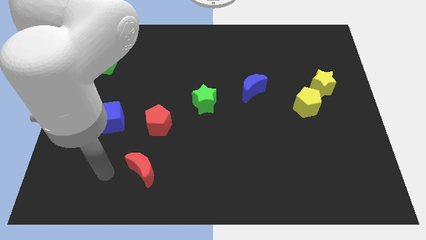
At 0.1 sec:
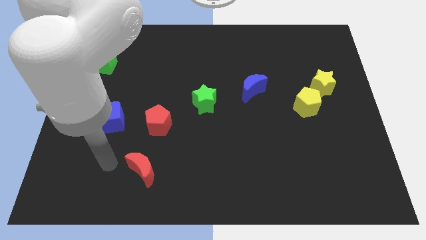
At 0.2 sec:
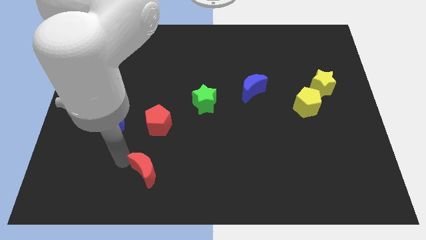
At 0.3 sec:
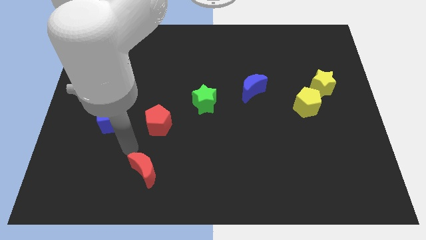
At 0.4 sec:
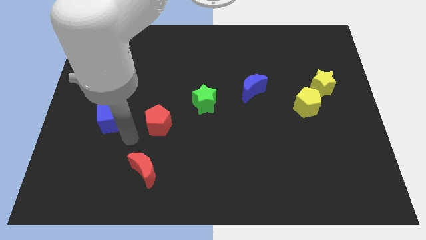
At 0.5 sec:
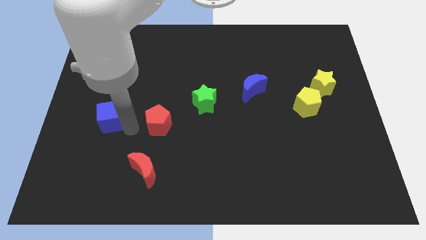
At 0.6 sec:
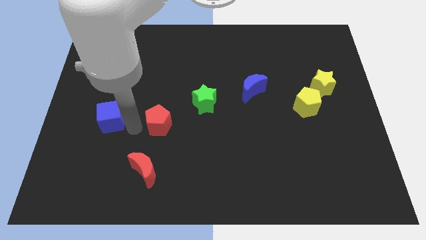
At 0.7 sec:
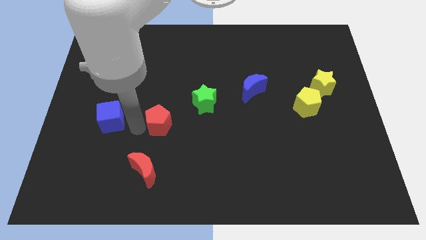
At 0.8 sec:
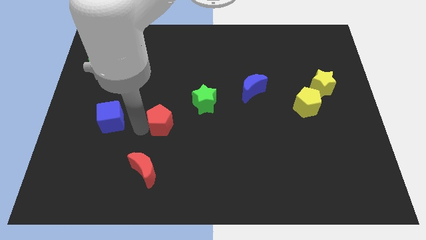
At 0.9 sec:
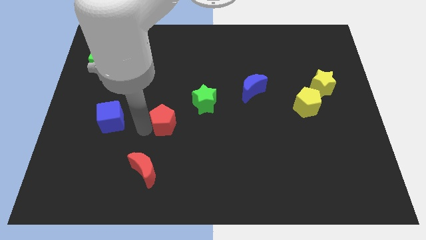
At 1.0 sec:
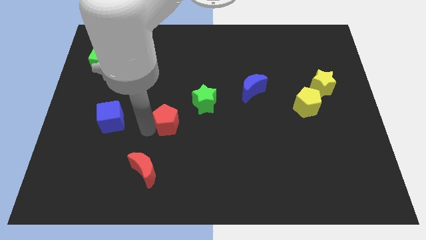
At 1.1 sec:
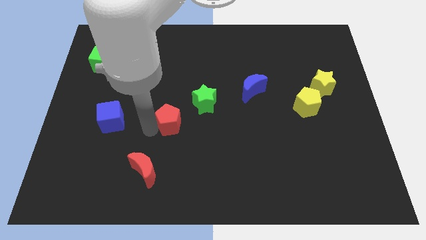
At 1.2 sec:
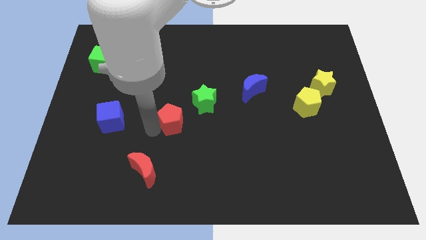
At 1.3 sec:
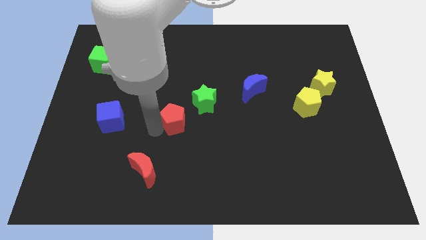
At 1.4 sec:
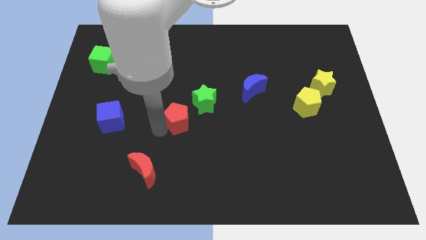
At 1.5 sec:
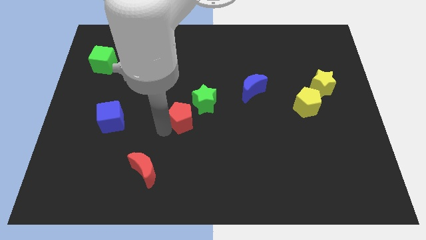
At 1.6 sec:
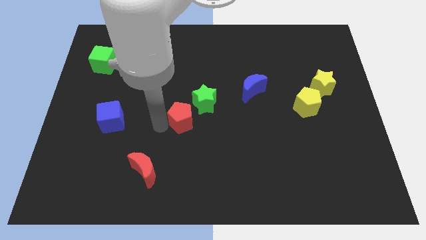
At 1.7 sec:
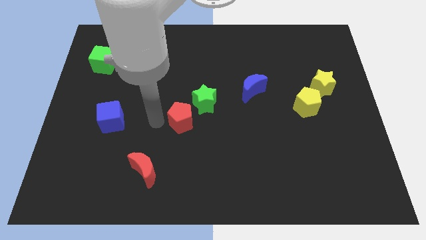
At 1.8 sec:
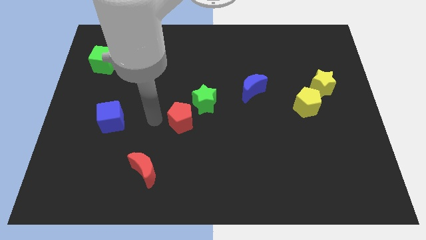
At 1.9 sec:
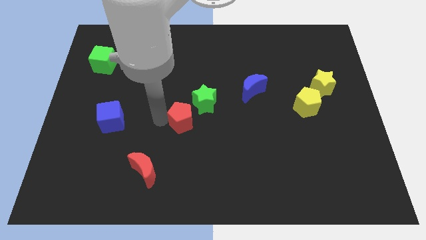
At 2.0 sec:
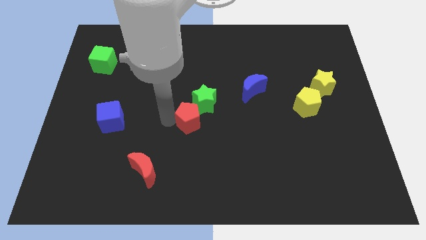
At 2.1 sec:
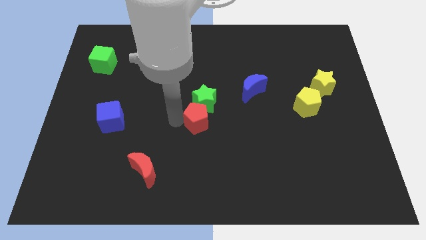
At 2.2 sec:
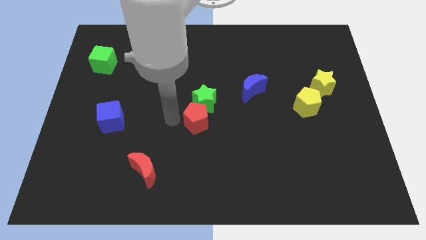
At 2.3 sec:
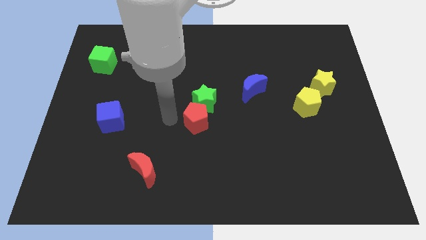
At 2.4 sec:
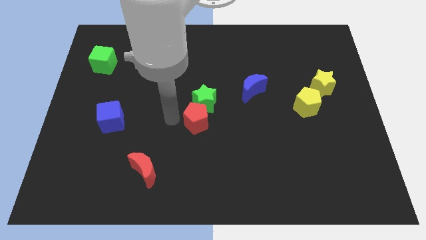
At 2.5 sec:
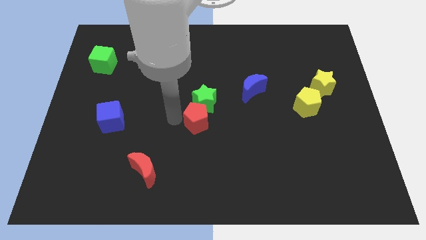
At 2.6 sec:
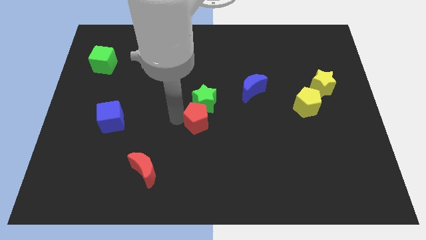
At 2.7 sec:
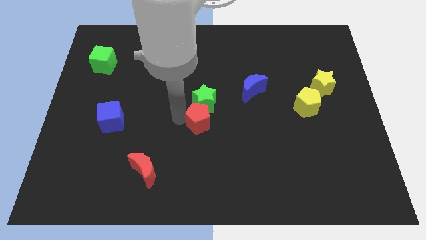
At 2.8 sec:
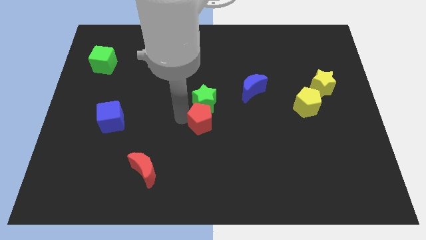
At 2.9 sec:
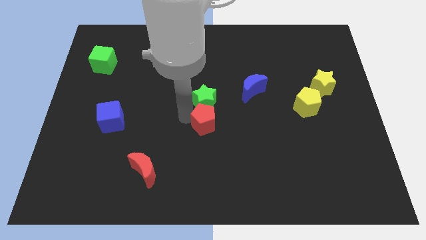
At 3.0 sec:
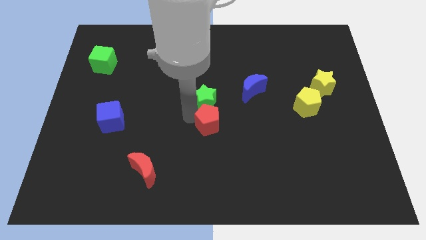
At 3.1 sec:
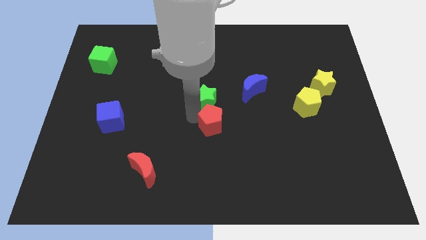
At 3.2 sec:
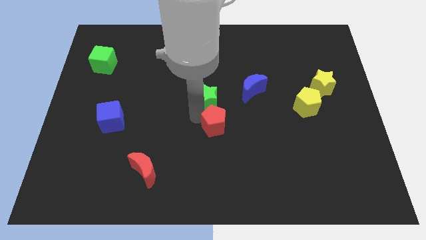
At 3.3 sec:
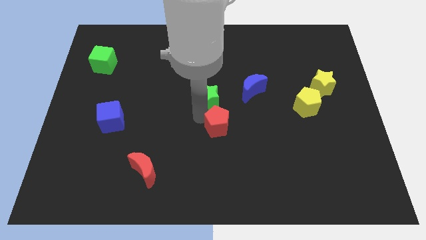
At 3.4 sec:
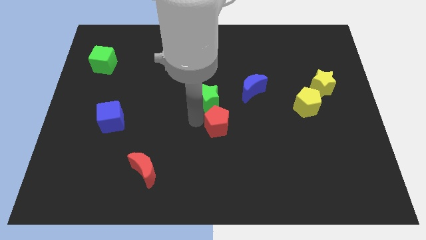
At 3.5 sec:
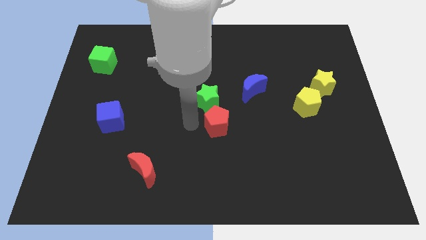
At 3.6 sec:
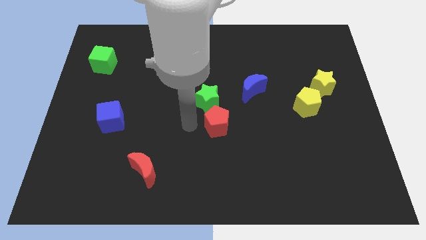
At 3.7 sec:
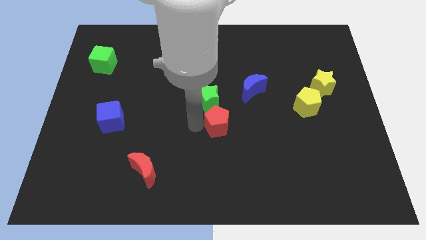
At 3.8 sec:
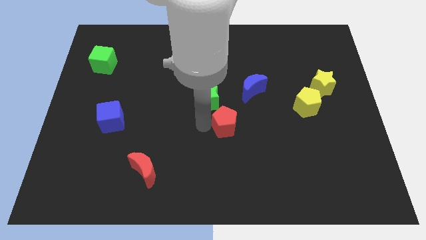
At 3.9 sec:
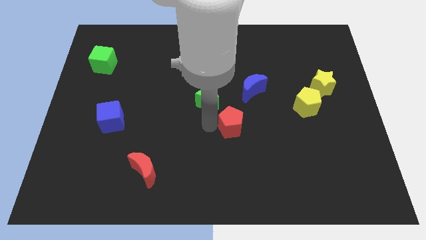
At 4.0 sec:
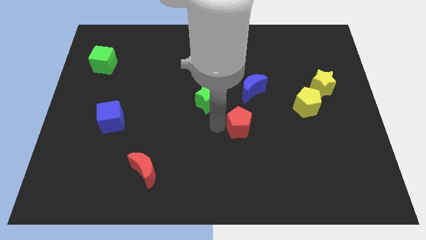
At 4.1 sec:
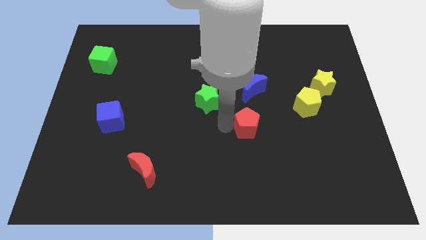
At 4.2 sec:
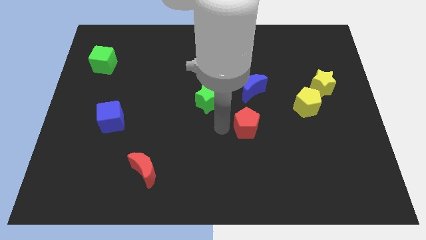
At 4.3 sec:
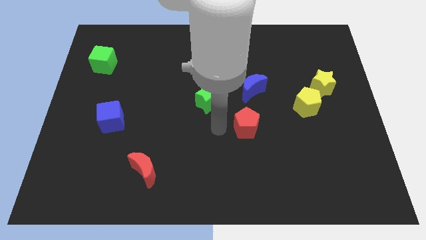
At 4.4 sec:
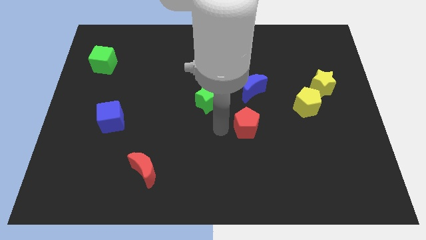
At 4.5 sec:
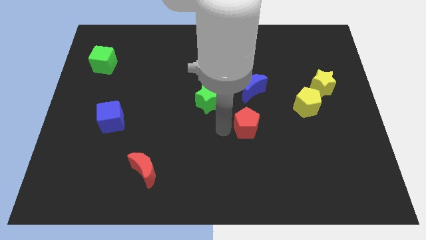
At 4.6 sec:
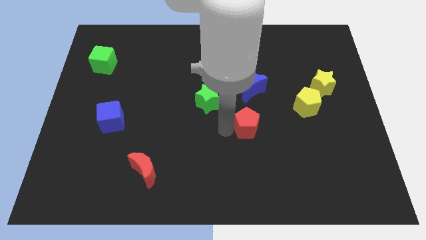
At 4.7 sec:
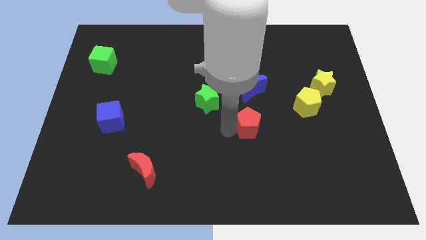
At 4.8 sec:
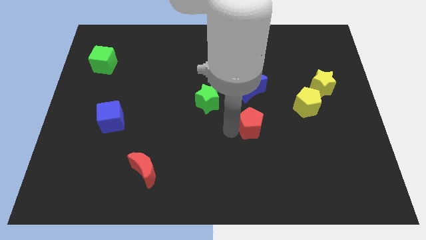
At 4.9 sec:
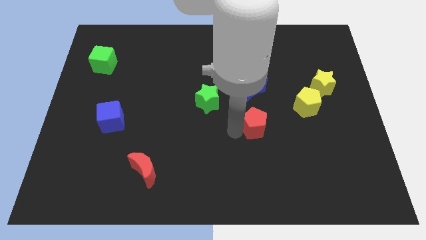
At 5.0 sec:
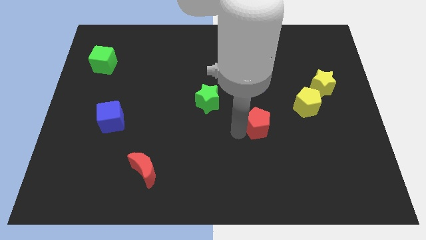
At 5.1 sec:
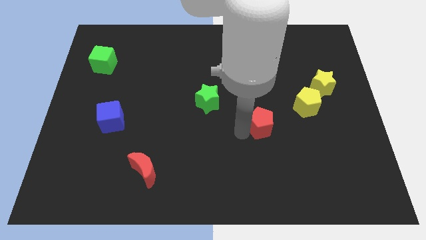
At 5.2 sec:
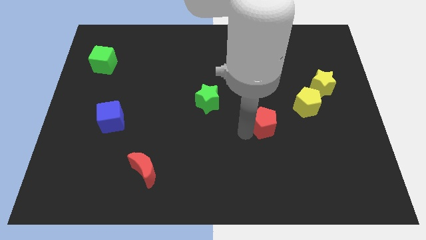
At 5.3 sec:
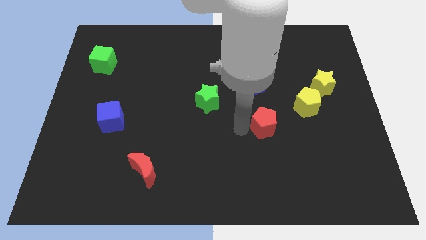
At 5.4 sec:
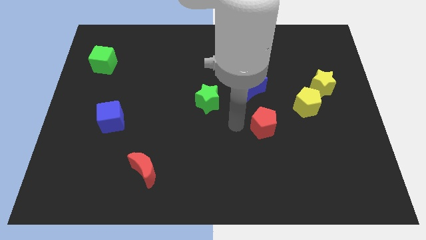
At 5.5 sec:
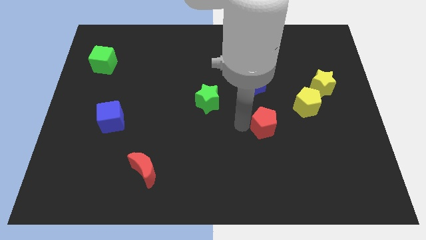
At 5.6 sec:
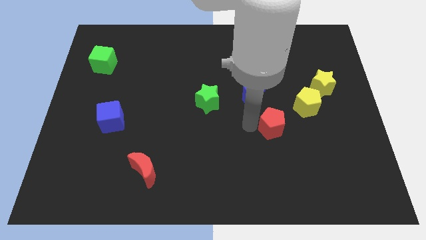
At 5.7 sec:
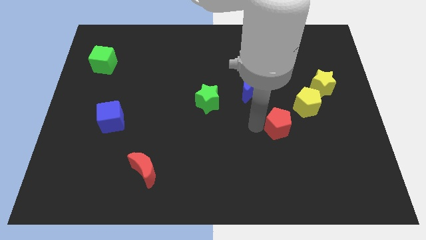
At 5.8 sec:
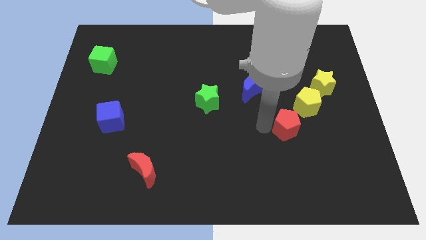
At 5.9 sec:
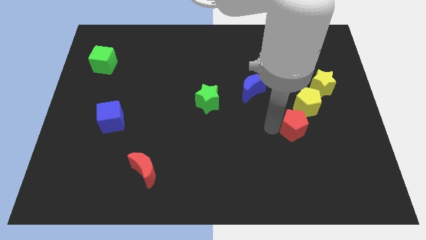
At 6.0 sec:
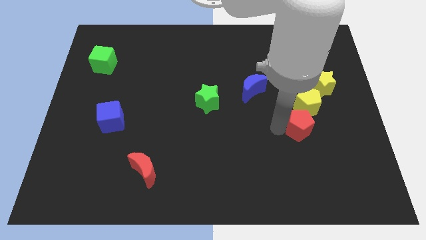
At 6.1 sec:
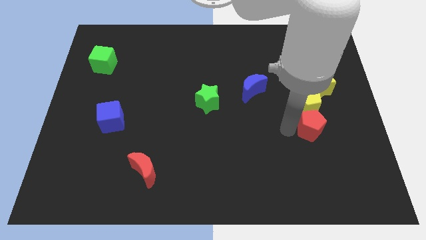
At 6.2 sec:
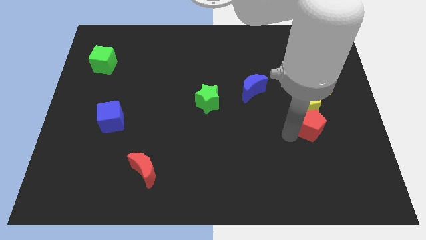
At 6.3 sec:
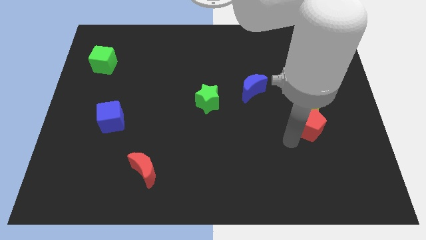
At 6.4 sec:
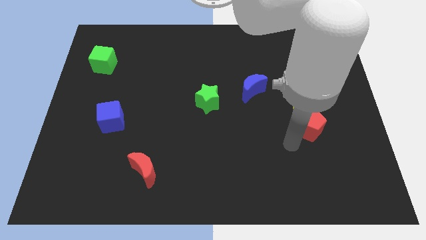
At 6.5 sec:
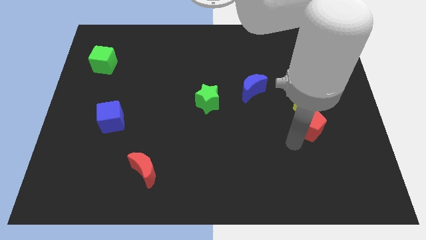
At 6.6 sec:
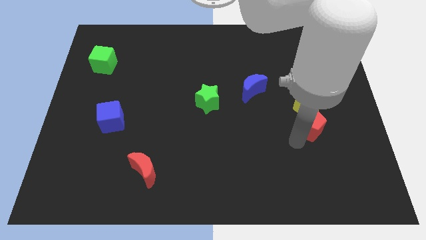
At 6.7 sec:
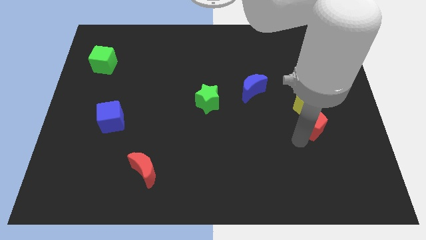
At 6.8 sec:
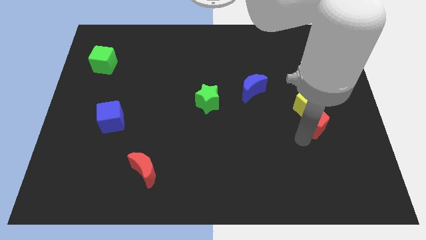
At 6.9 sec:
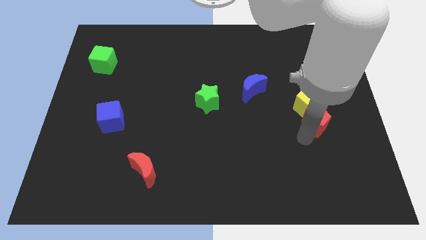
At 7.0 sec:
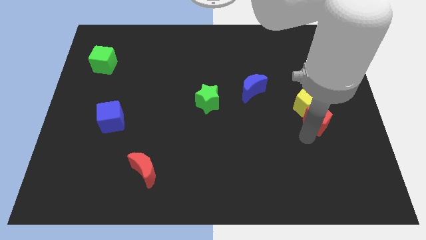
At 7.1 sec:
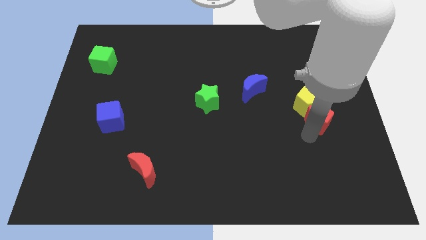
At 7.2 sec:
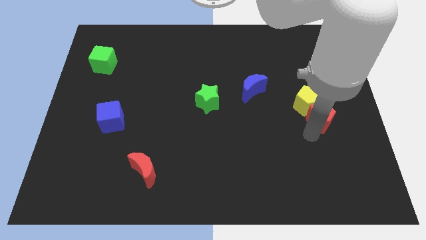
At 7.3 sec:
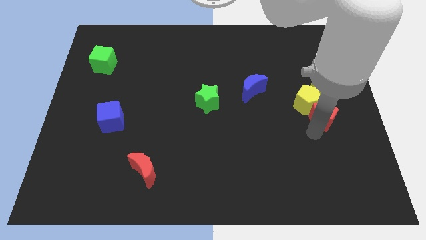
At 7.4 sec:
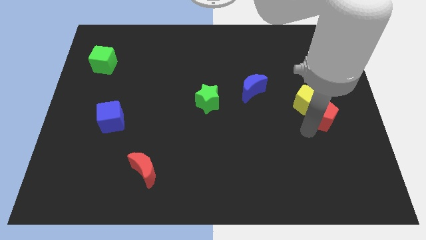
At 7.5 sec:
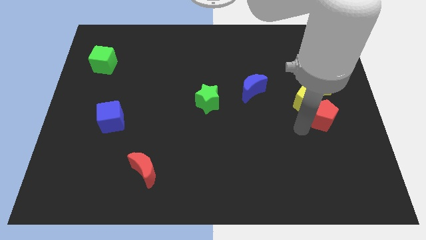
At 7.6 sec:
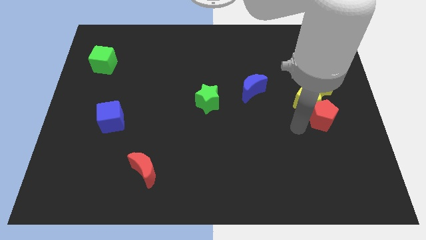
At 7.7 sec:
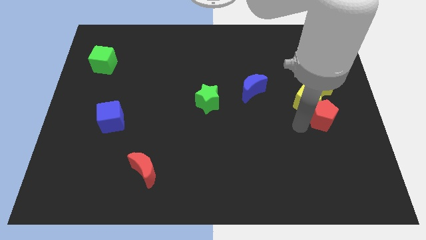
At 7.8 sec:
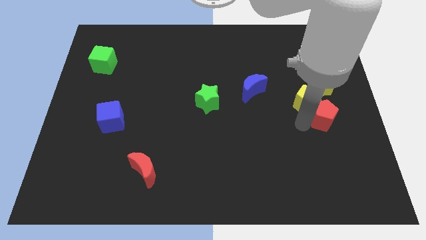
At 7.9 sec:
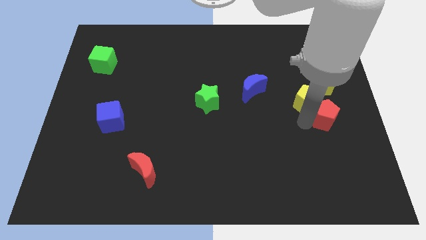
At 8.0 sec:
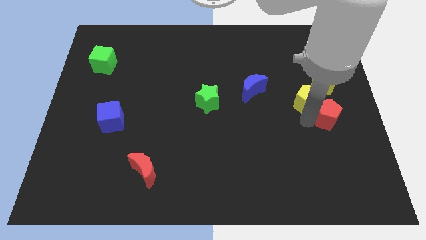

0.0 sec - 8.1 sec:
slide the red pentagon to the right side of the board
